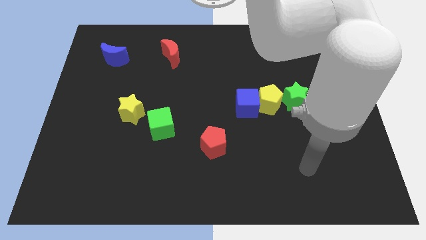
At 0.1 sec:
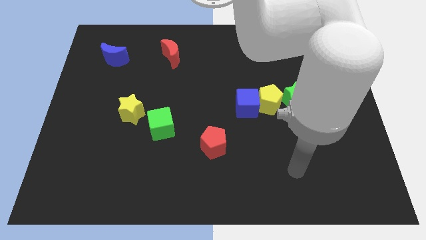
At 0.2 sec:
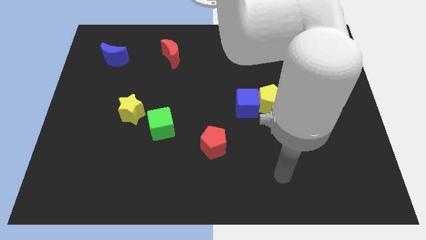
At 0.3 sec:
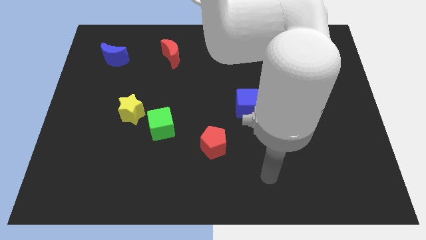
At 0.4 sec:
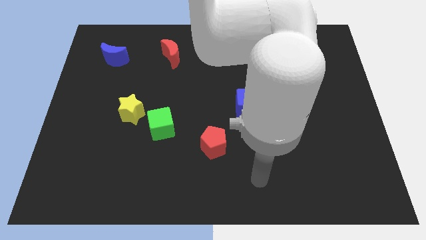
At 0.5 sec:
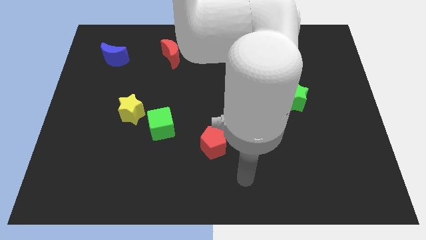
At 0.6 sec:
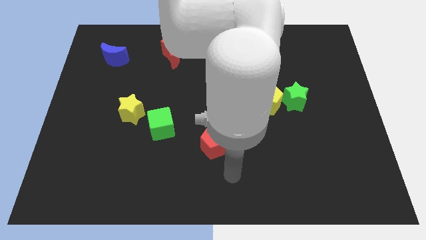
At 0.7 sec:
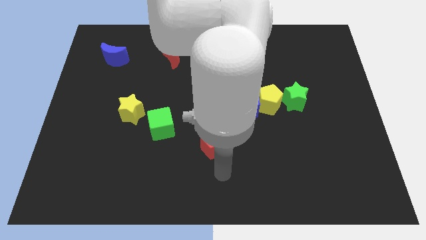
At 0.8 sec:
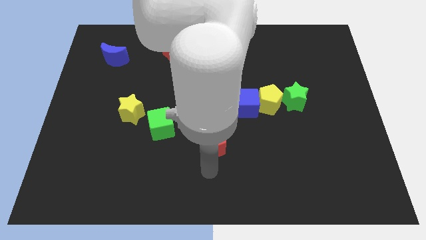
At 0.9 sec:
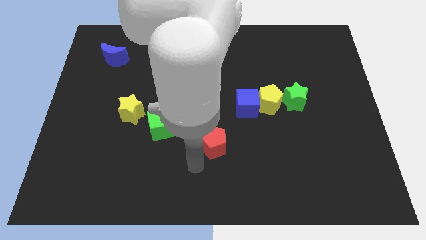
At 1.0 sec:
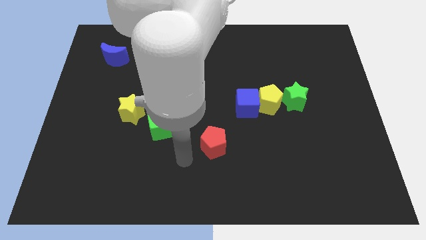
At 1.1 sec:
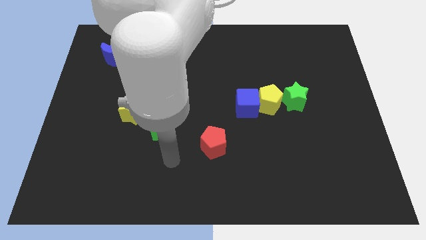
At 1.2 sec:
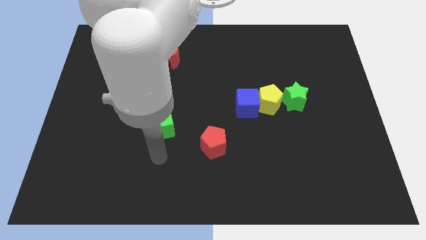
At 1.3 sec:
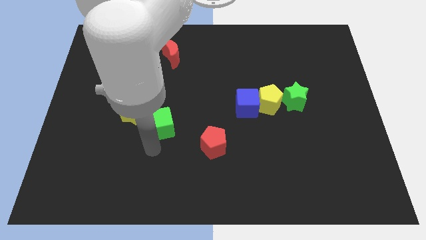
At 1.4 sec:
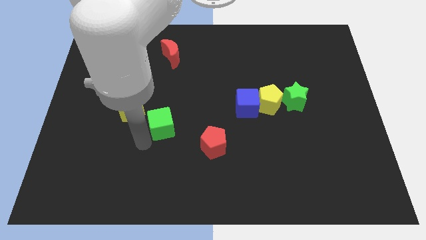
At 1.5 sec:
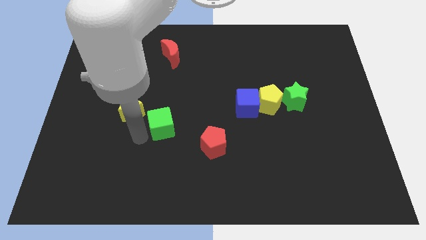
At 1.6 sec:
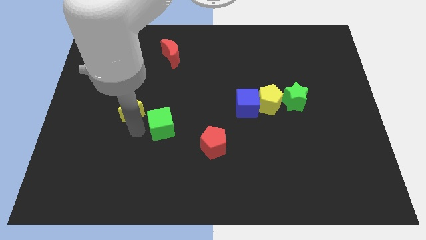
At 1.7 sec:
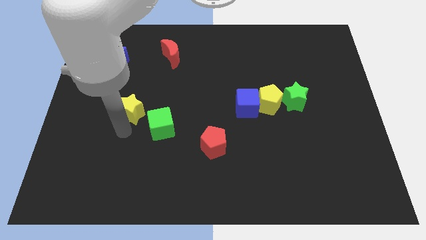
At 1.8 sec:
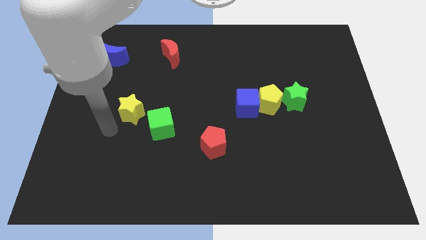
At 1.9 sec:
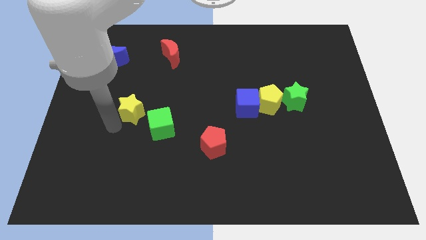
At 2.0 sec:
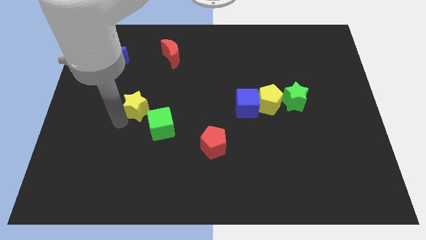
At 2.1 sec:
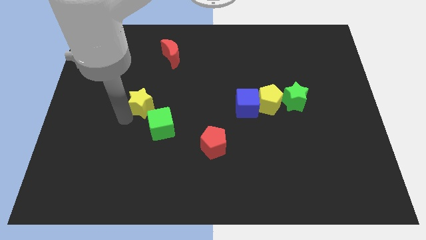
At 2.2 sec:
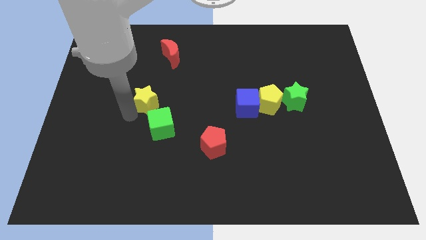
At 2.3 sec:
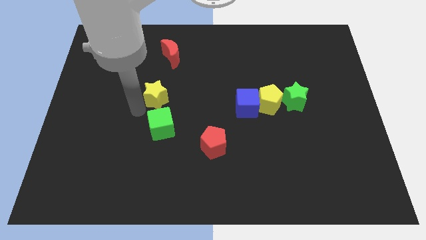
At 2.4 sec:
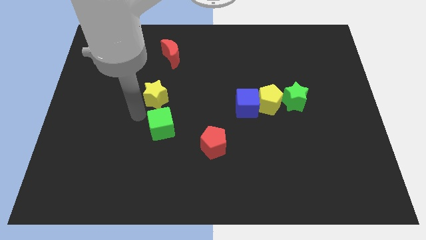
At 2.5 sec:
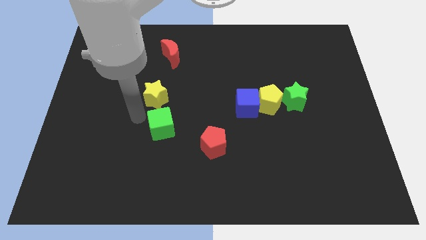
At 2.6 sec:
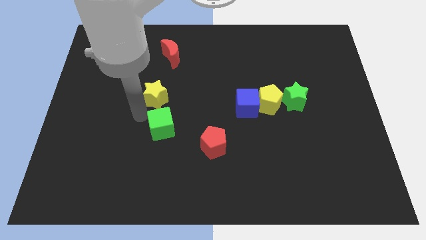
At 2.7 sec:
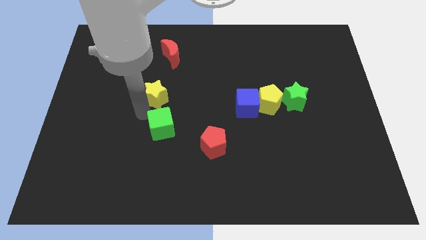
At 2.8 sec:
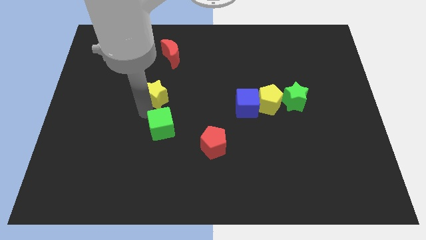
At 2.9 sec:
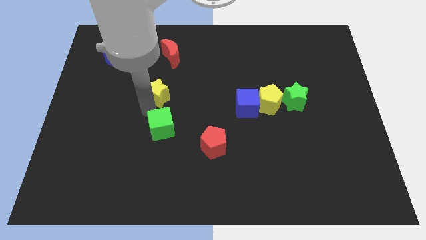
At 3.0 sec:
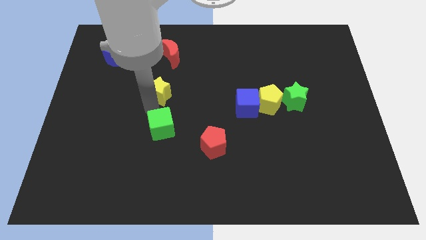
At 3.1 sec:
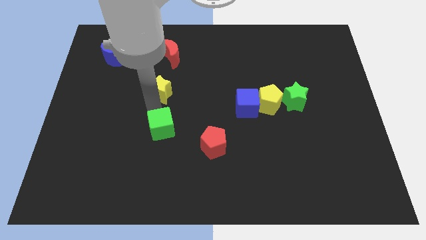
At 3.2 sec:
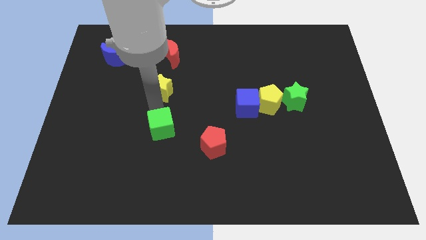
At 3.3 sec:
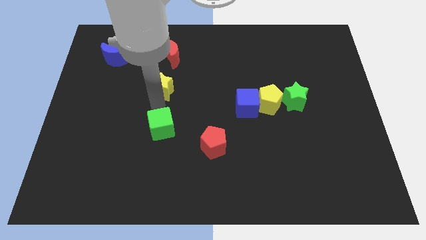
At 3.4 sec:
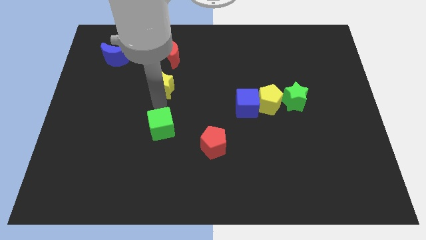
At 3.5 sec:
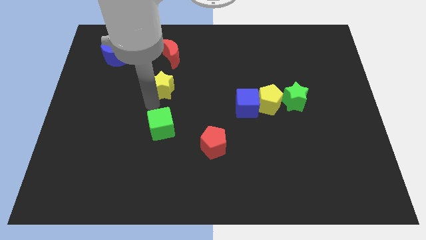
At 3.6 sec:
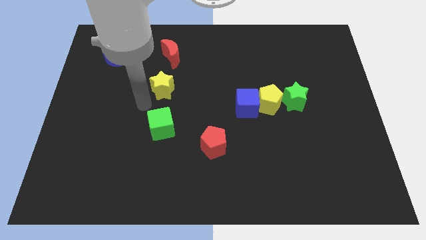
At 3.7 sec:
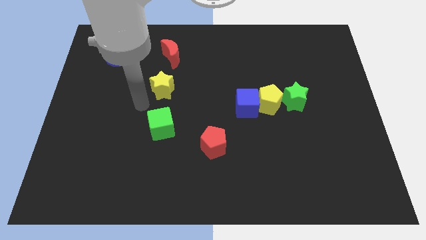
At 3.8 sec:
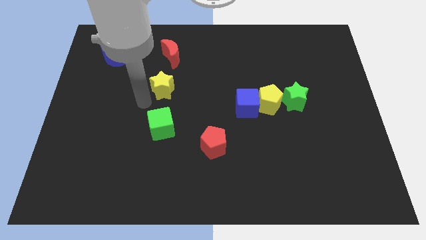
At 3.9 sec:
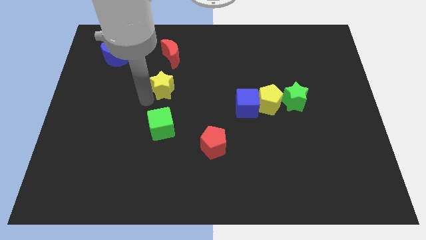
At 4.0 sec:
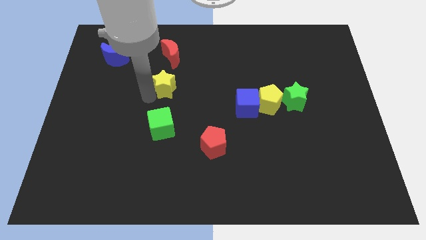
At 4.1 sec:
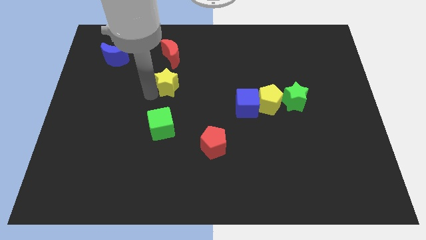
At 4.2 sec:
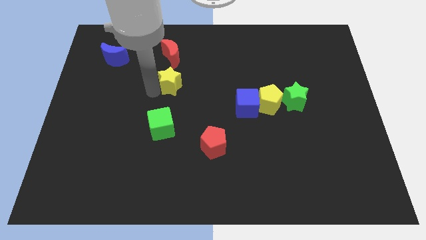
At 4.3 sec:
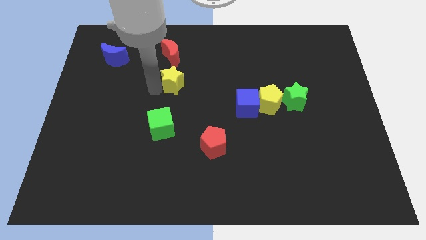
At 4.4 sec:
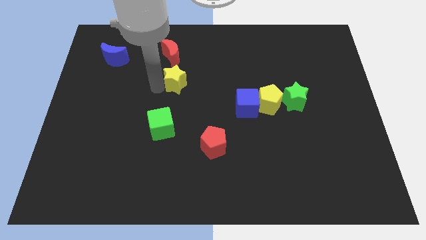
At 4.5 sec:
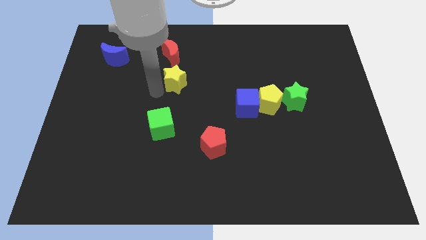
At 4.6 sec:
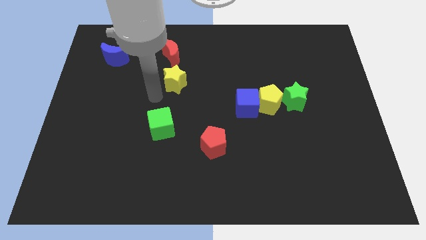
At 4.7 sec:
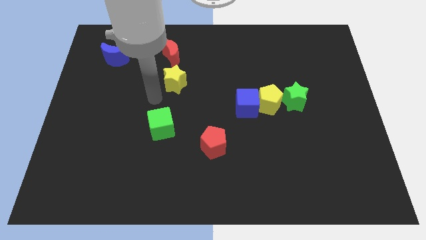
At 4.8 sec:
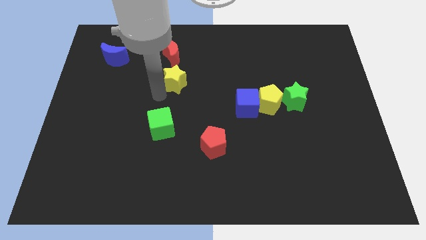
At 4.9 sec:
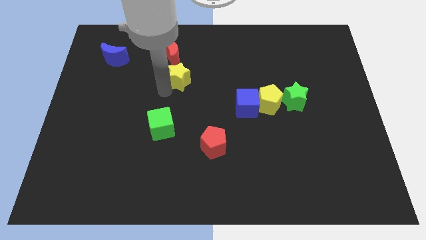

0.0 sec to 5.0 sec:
put the yellow star diagonally down and to the right of the red moon

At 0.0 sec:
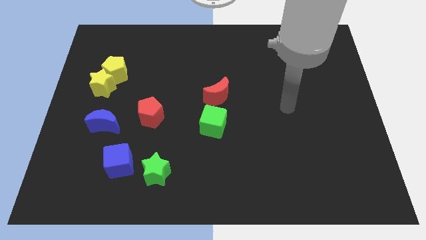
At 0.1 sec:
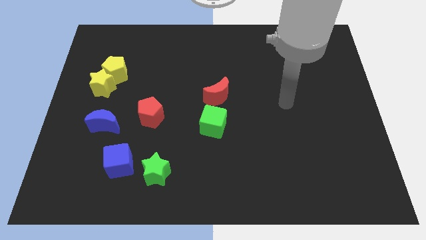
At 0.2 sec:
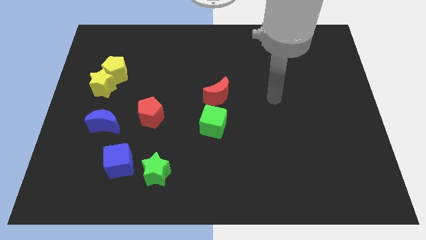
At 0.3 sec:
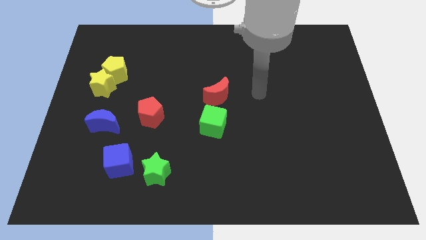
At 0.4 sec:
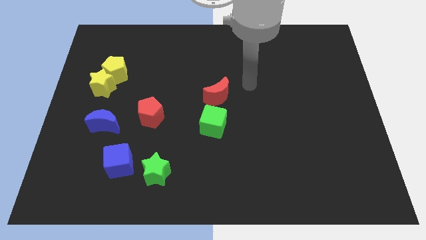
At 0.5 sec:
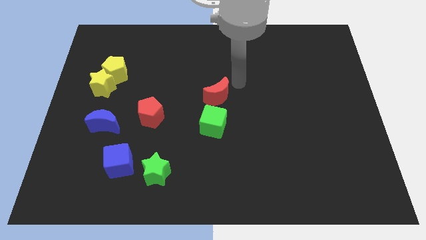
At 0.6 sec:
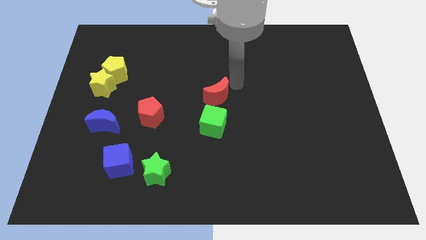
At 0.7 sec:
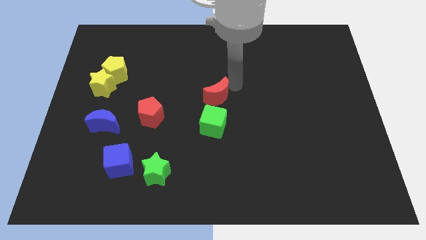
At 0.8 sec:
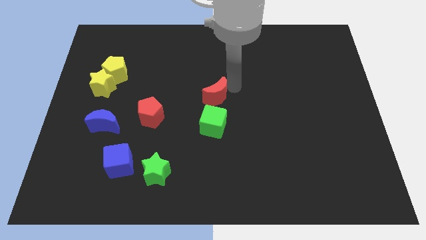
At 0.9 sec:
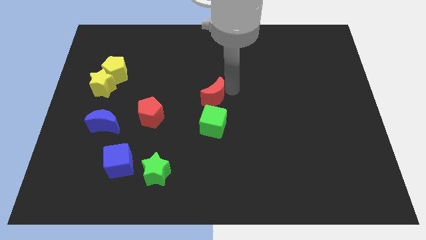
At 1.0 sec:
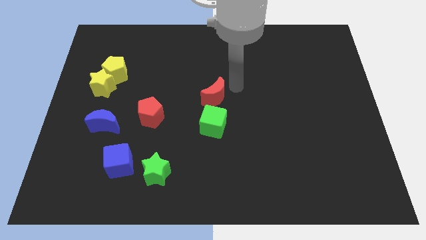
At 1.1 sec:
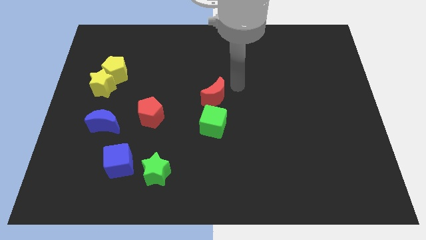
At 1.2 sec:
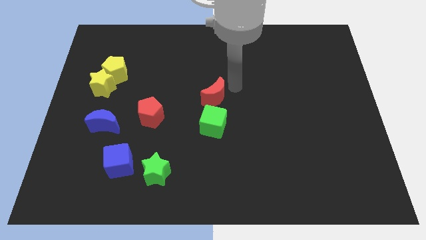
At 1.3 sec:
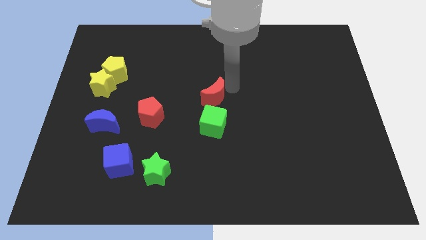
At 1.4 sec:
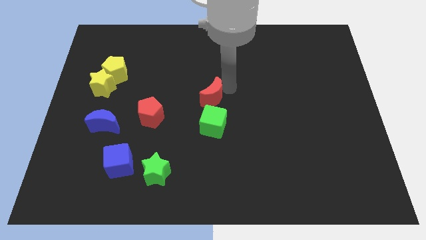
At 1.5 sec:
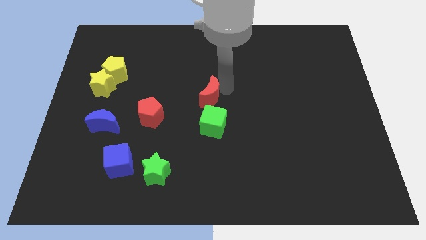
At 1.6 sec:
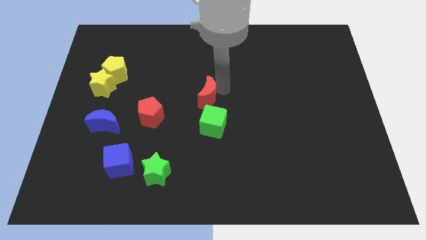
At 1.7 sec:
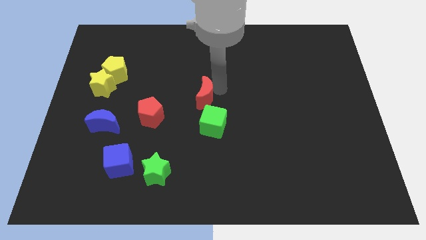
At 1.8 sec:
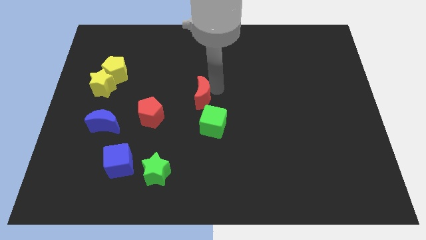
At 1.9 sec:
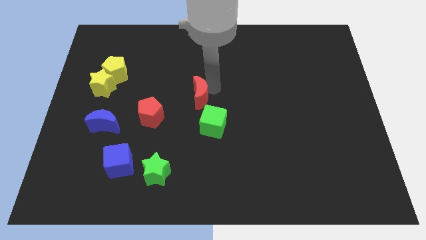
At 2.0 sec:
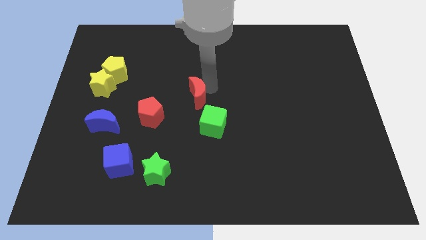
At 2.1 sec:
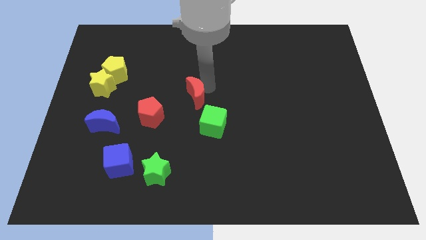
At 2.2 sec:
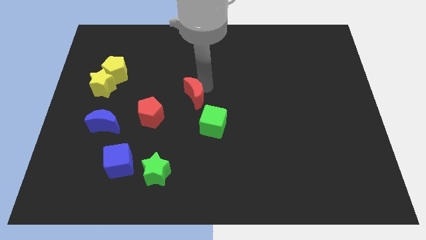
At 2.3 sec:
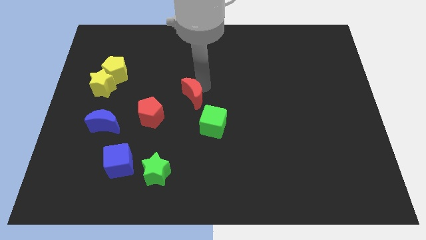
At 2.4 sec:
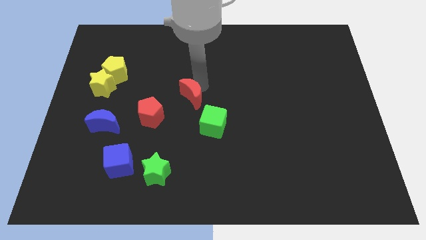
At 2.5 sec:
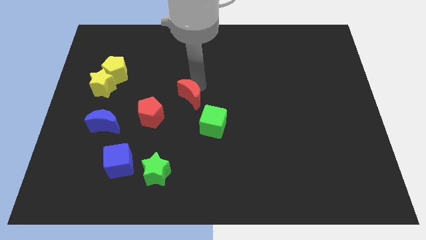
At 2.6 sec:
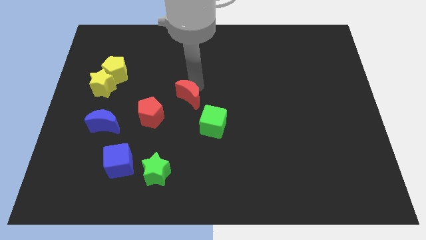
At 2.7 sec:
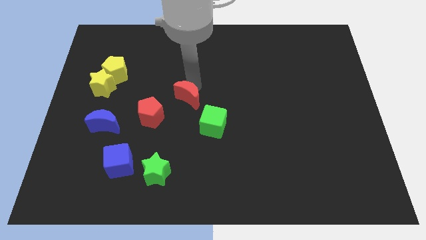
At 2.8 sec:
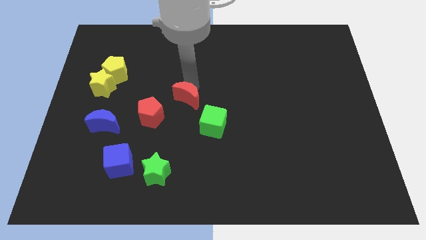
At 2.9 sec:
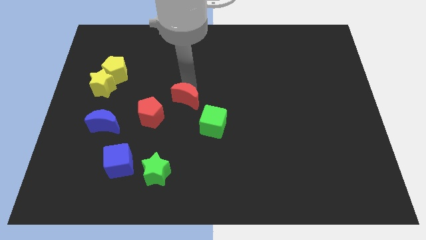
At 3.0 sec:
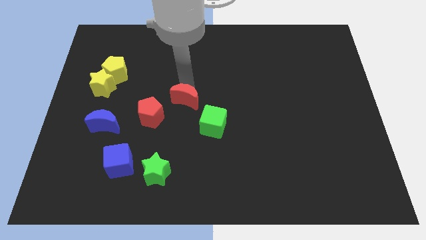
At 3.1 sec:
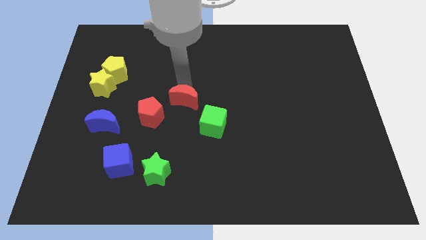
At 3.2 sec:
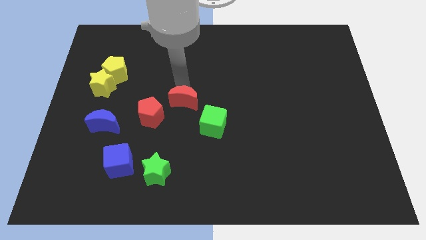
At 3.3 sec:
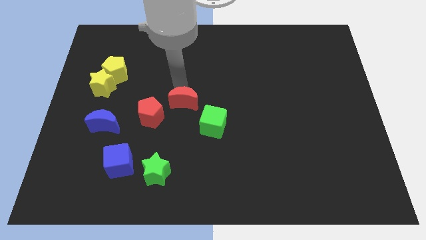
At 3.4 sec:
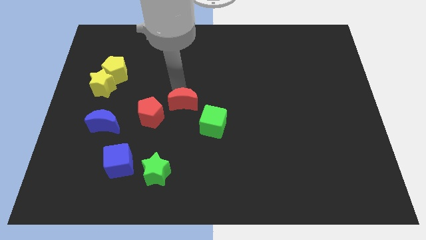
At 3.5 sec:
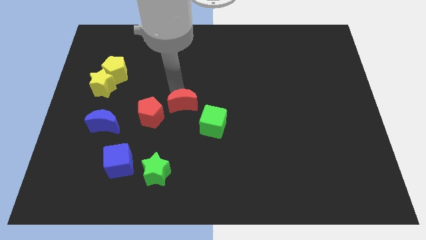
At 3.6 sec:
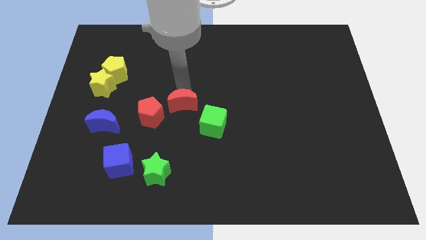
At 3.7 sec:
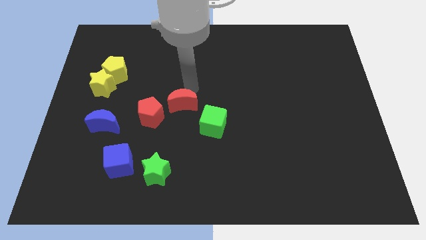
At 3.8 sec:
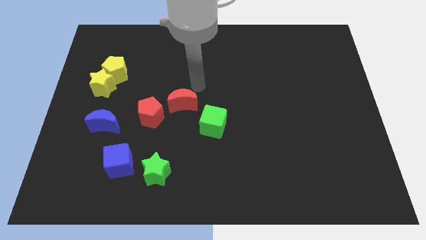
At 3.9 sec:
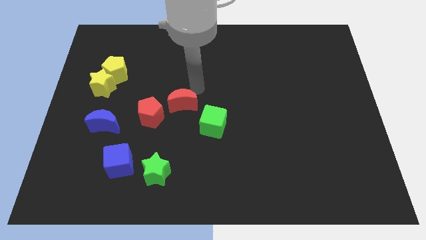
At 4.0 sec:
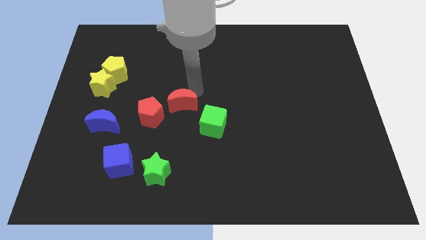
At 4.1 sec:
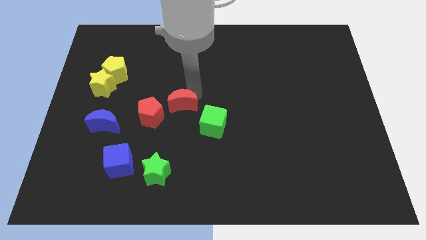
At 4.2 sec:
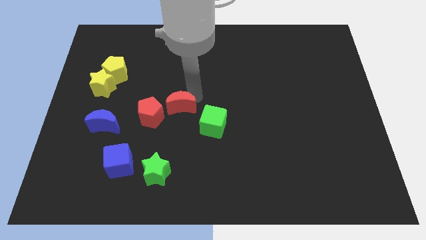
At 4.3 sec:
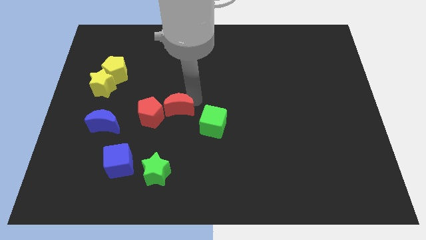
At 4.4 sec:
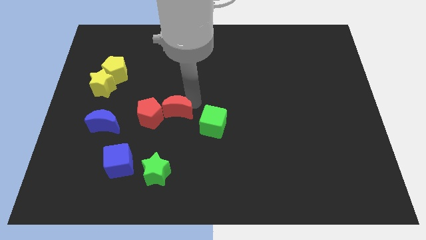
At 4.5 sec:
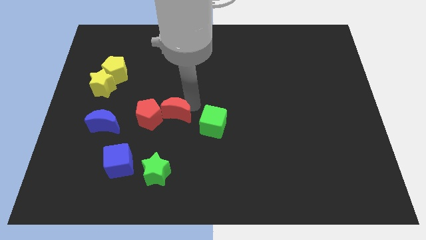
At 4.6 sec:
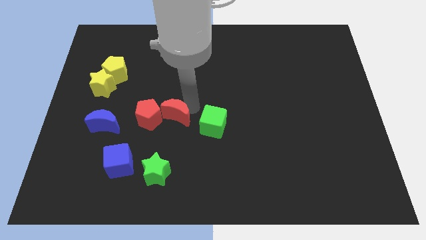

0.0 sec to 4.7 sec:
put the red moon to the top of the green star
